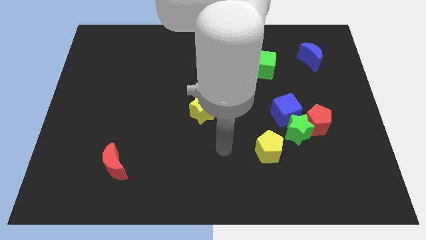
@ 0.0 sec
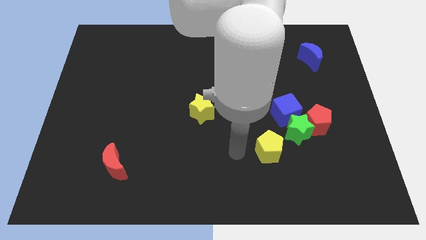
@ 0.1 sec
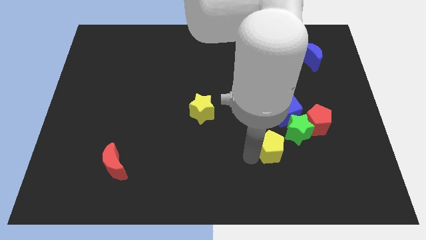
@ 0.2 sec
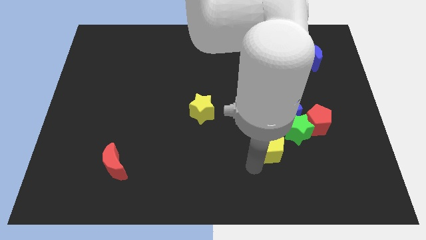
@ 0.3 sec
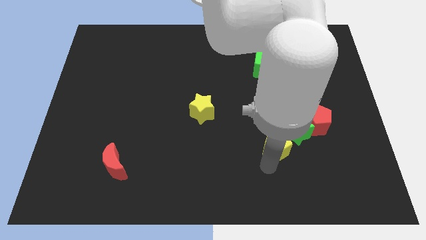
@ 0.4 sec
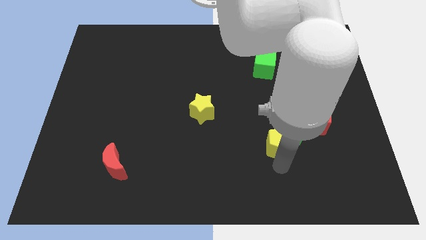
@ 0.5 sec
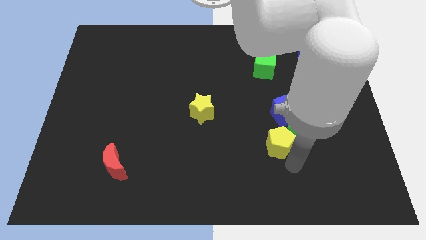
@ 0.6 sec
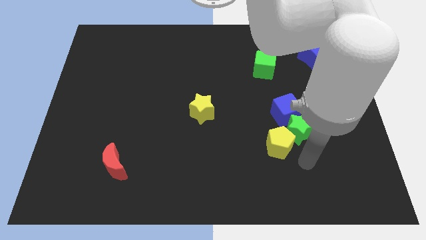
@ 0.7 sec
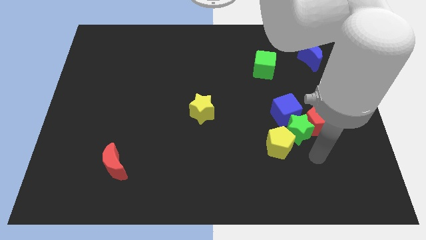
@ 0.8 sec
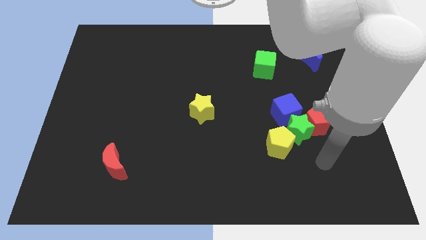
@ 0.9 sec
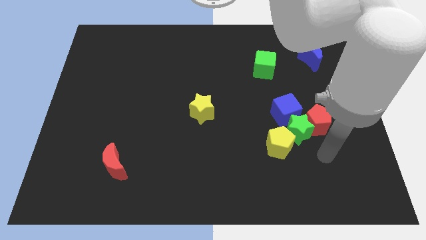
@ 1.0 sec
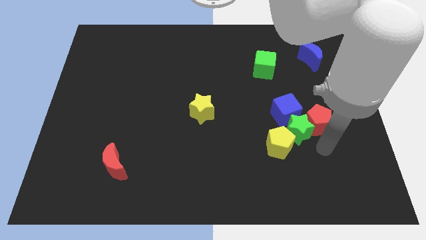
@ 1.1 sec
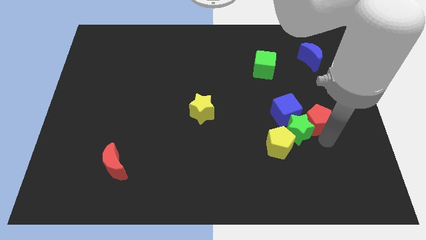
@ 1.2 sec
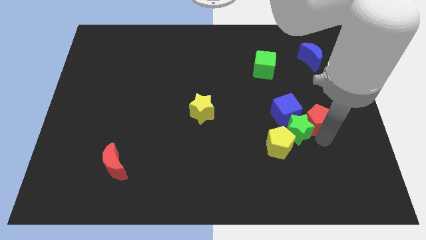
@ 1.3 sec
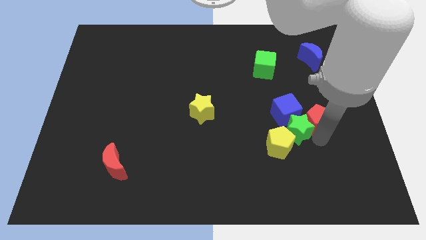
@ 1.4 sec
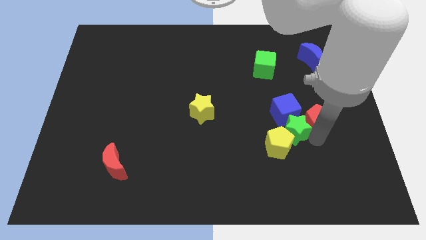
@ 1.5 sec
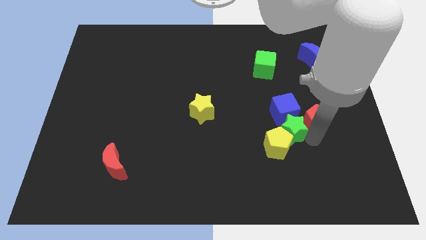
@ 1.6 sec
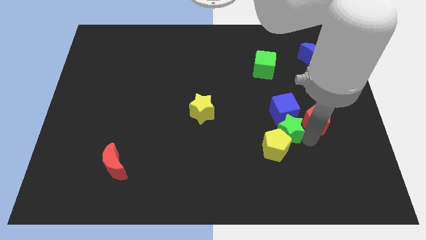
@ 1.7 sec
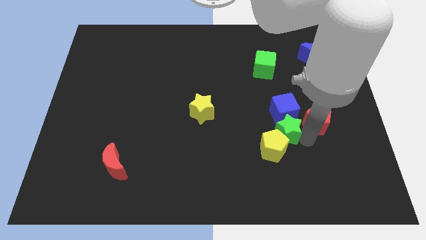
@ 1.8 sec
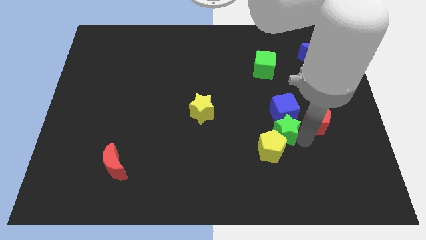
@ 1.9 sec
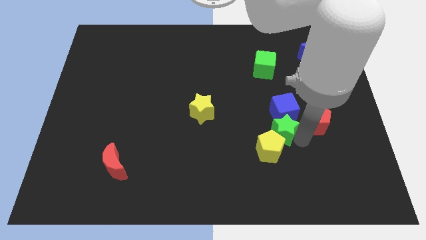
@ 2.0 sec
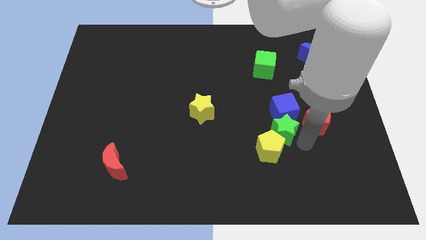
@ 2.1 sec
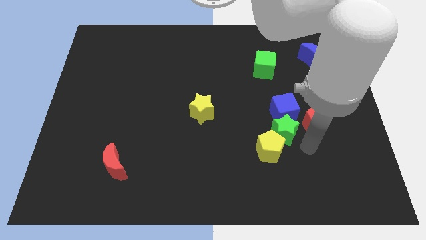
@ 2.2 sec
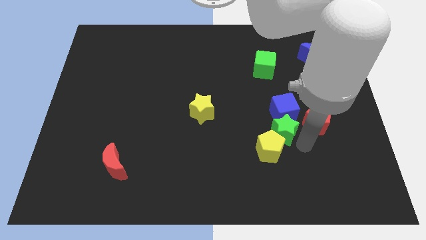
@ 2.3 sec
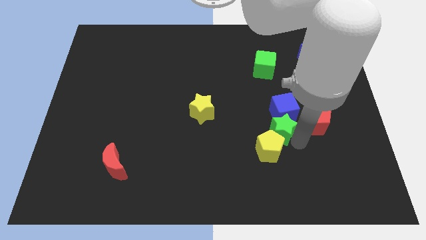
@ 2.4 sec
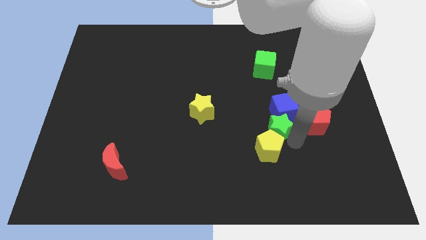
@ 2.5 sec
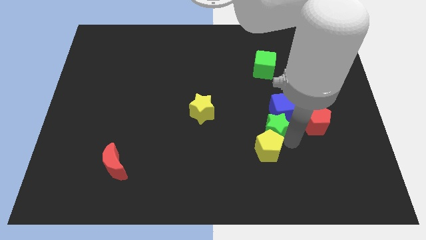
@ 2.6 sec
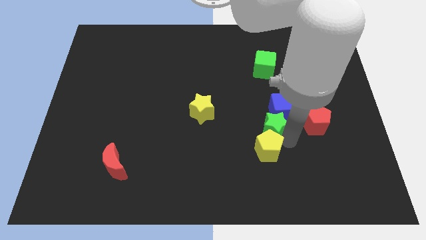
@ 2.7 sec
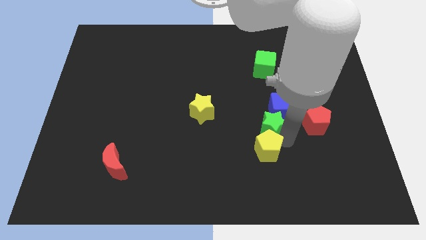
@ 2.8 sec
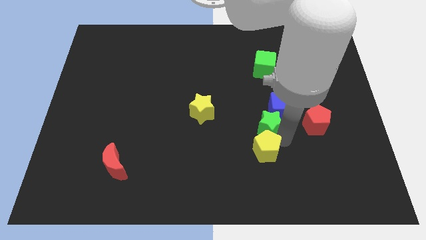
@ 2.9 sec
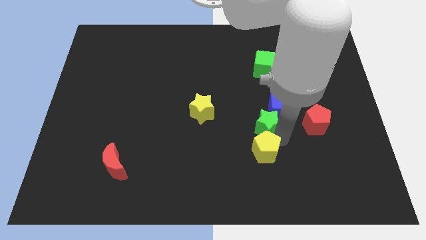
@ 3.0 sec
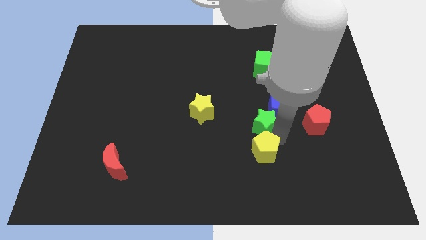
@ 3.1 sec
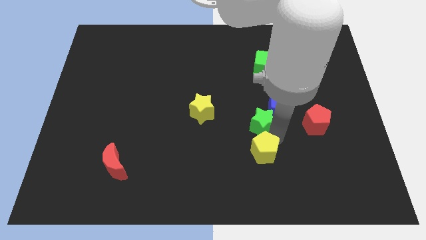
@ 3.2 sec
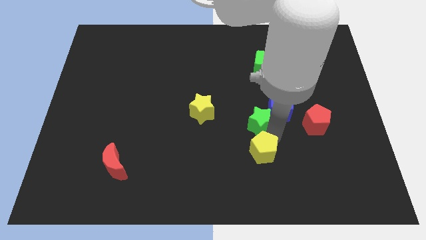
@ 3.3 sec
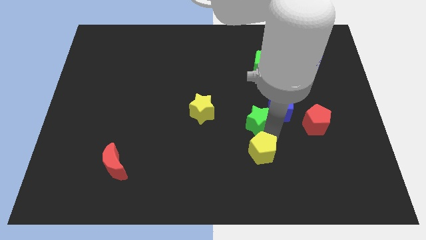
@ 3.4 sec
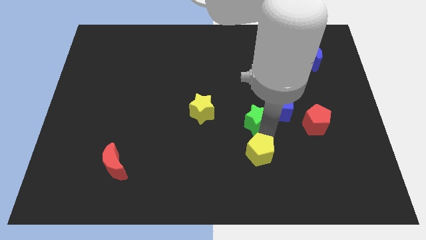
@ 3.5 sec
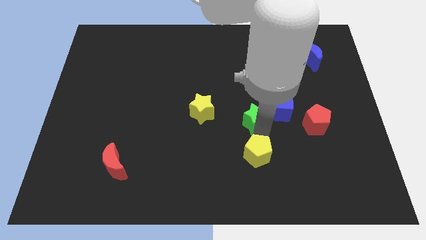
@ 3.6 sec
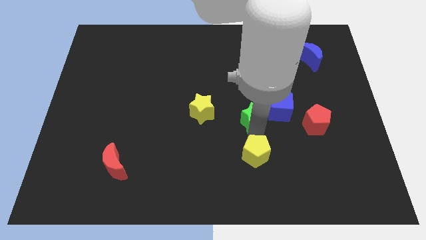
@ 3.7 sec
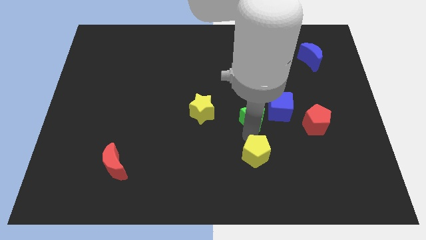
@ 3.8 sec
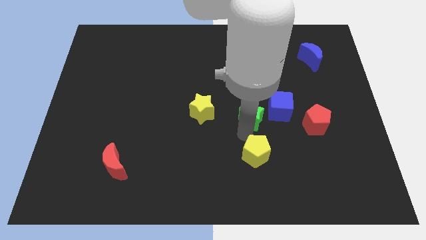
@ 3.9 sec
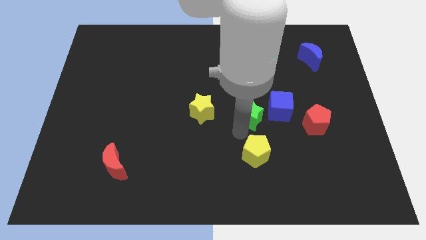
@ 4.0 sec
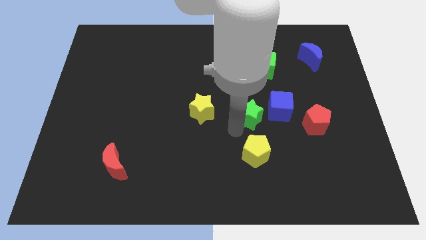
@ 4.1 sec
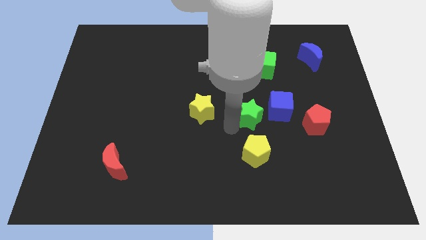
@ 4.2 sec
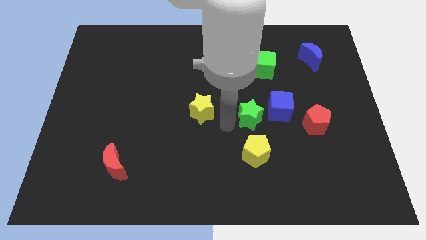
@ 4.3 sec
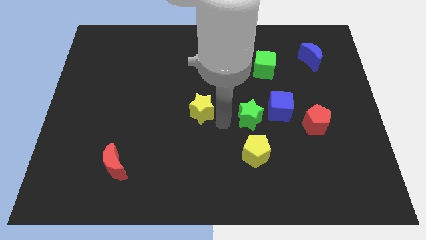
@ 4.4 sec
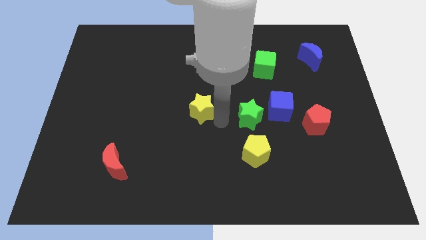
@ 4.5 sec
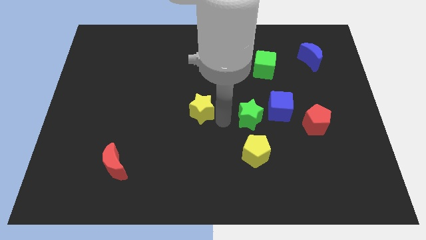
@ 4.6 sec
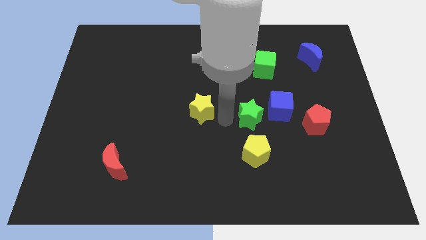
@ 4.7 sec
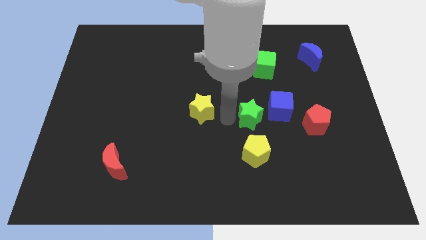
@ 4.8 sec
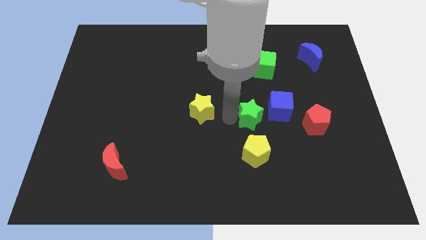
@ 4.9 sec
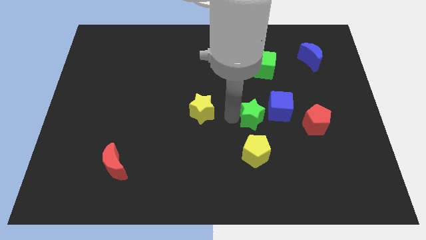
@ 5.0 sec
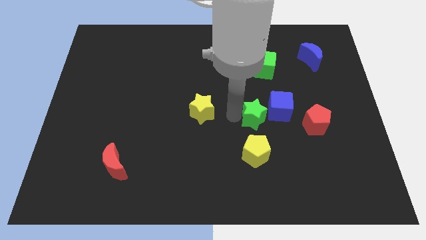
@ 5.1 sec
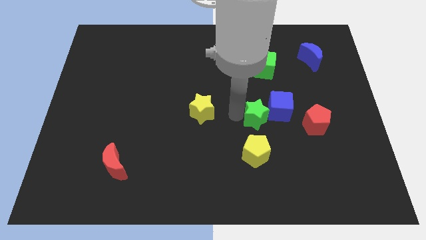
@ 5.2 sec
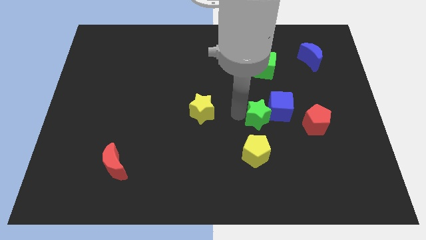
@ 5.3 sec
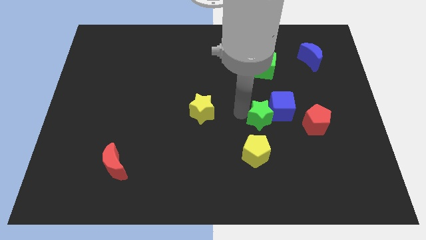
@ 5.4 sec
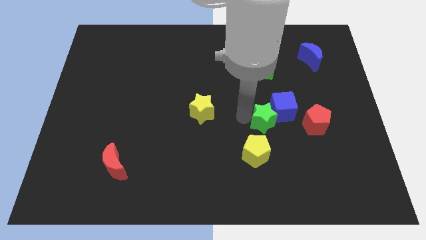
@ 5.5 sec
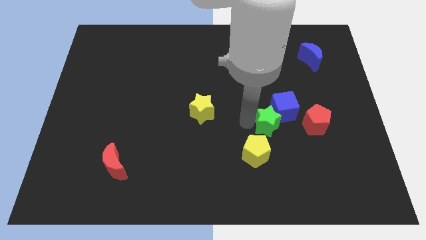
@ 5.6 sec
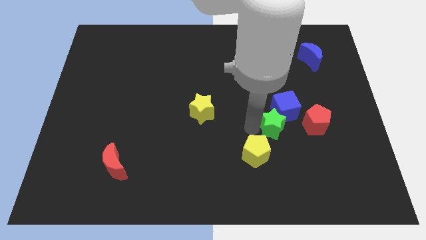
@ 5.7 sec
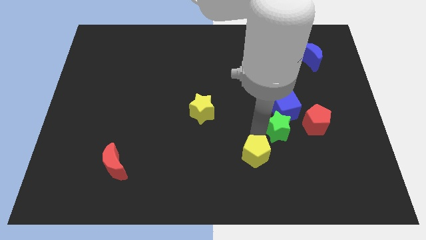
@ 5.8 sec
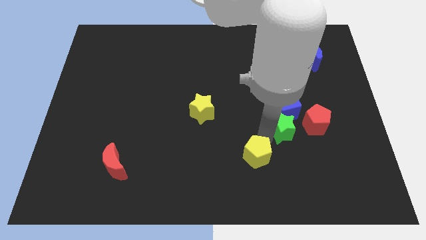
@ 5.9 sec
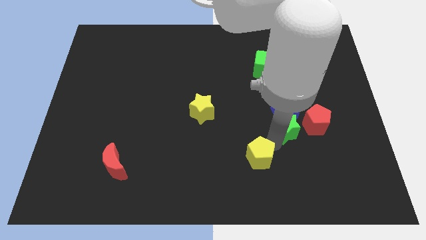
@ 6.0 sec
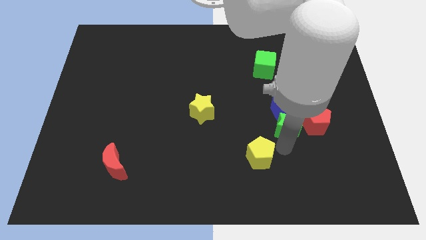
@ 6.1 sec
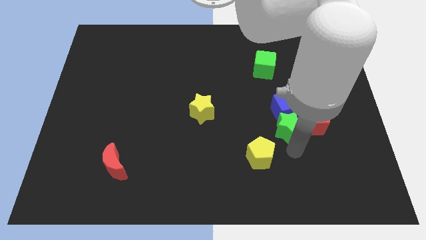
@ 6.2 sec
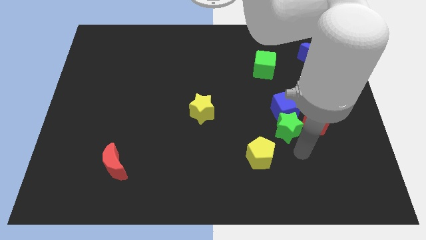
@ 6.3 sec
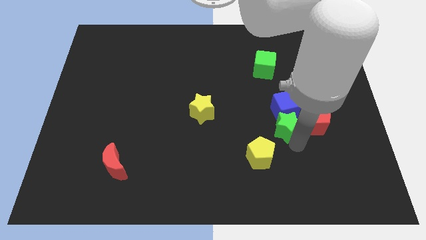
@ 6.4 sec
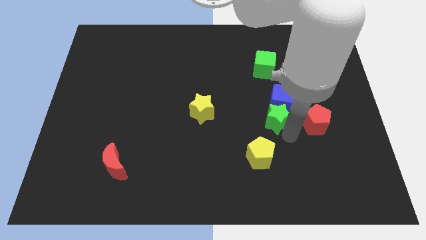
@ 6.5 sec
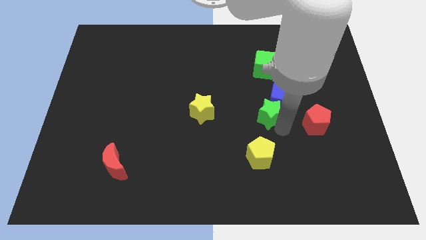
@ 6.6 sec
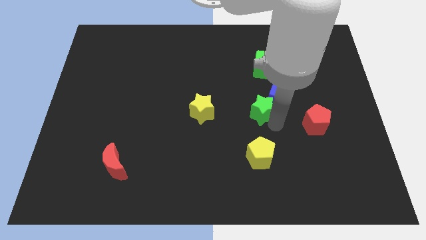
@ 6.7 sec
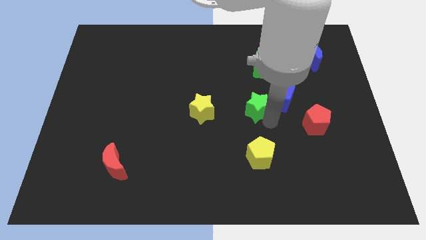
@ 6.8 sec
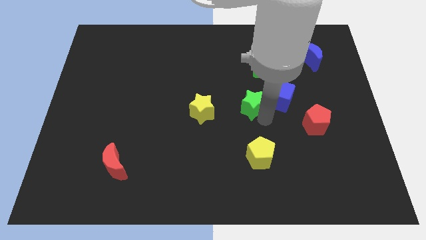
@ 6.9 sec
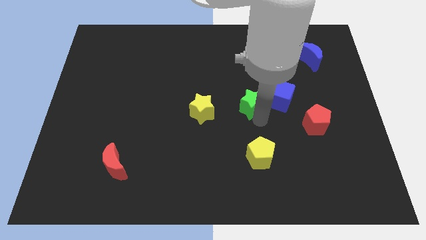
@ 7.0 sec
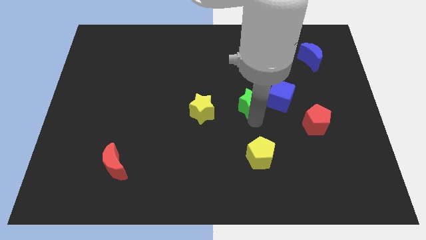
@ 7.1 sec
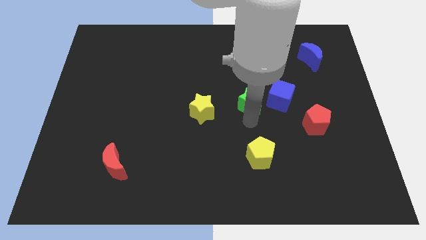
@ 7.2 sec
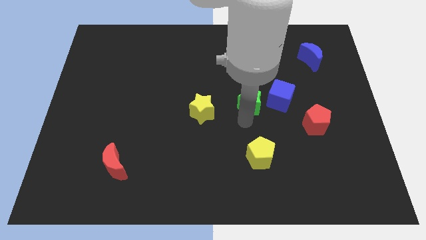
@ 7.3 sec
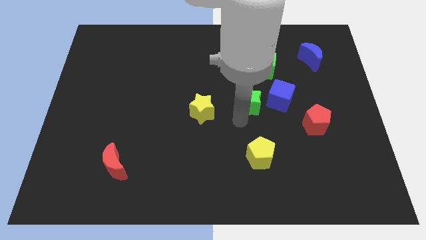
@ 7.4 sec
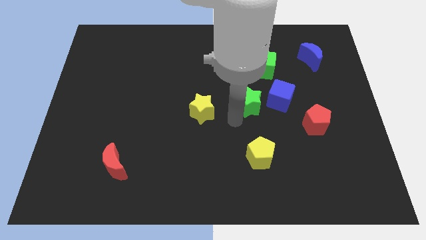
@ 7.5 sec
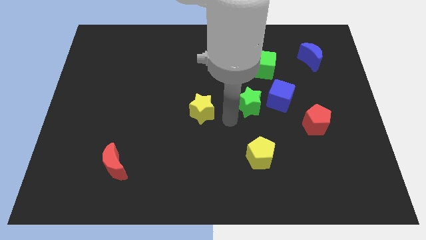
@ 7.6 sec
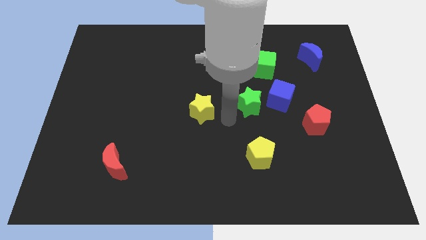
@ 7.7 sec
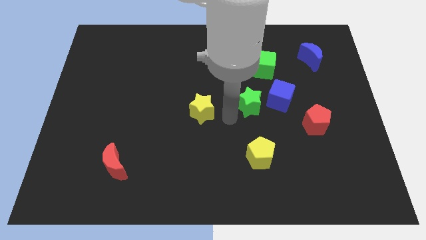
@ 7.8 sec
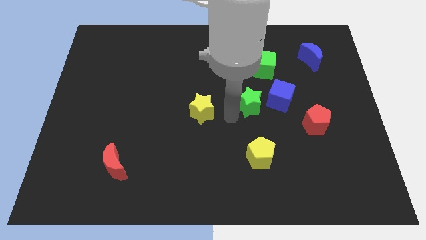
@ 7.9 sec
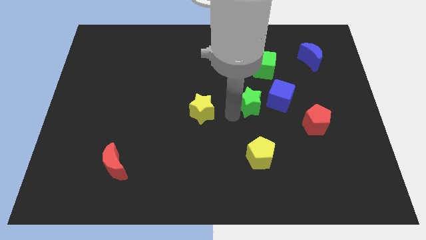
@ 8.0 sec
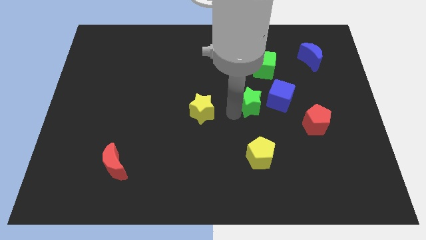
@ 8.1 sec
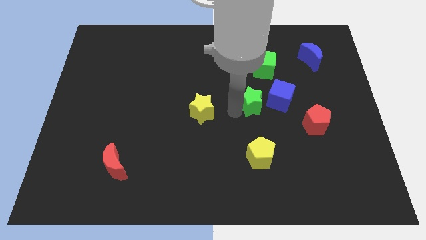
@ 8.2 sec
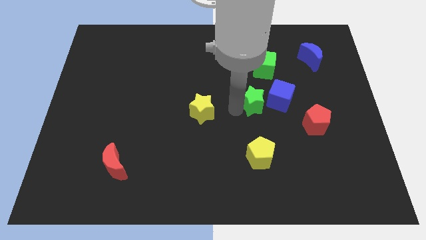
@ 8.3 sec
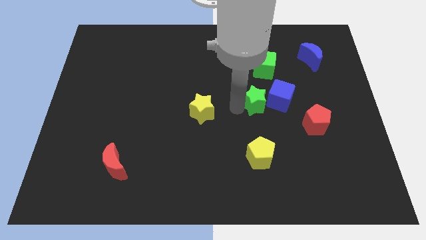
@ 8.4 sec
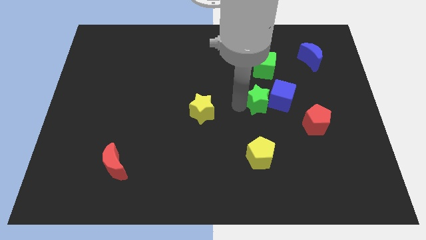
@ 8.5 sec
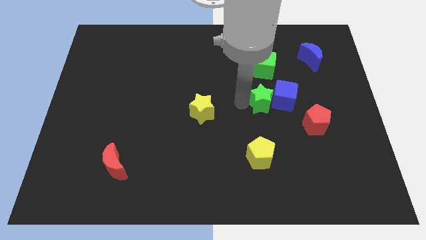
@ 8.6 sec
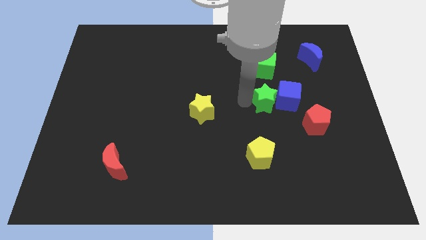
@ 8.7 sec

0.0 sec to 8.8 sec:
slightly push the green star upwards
